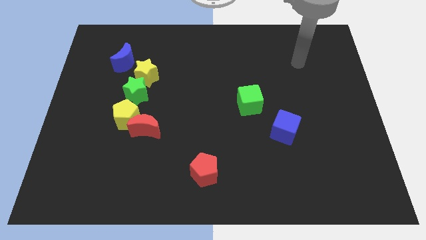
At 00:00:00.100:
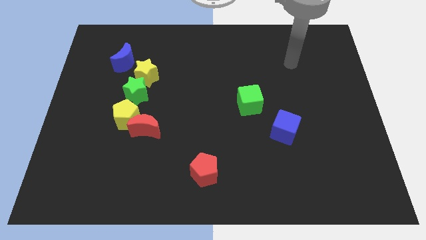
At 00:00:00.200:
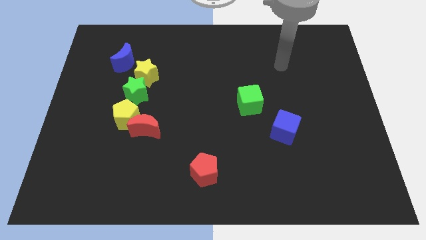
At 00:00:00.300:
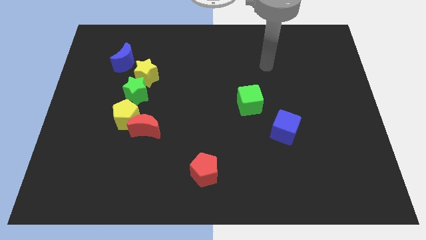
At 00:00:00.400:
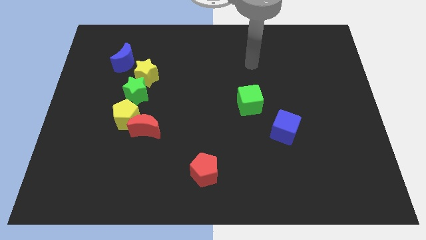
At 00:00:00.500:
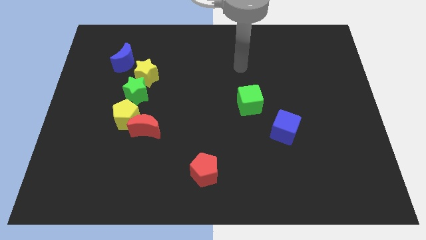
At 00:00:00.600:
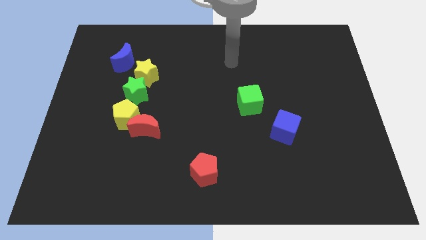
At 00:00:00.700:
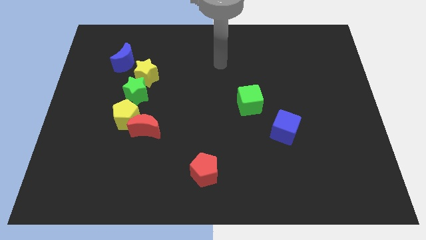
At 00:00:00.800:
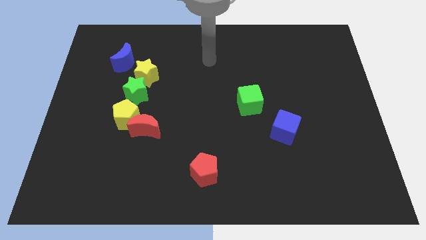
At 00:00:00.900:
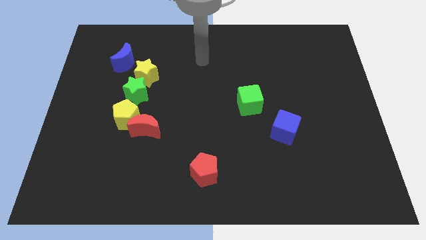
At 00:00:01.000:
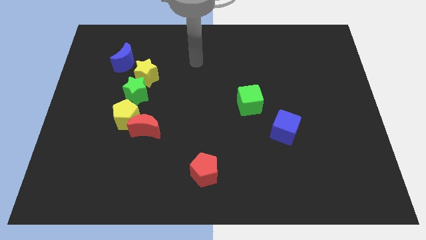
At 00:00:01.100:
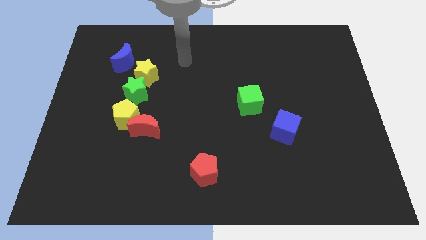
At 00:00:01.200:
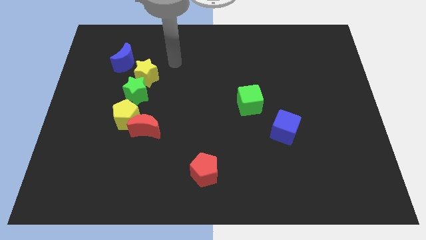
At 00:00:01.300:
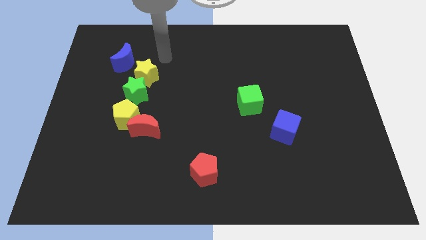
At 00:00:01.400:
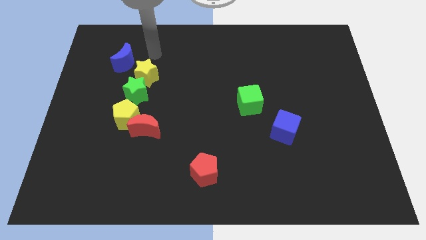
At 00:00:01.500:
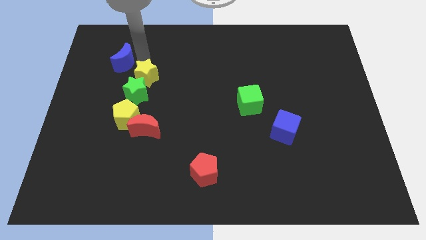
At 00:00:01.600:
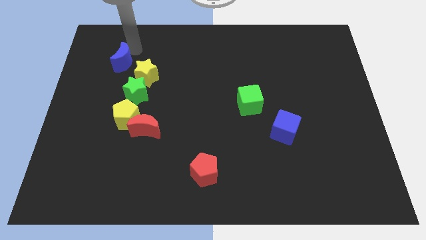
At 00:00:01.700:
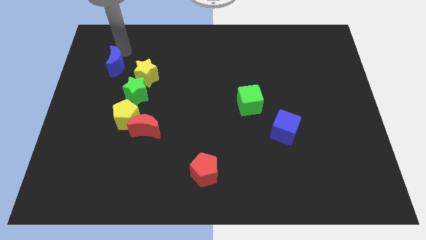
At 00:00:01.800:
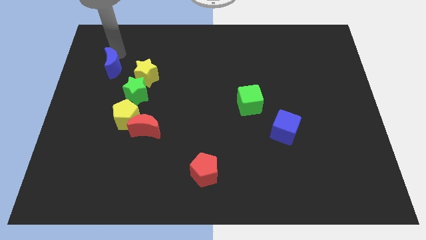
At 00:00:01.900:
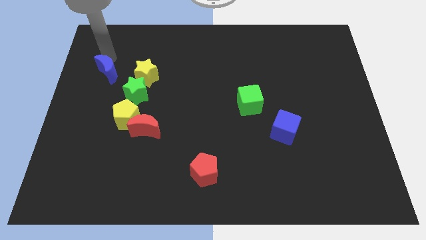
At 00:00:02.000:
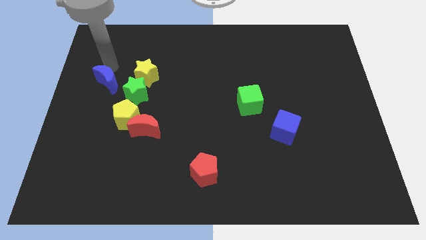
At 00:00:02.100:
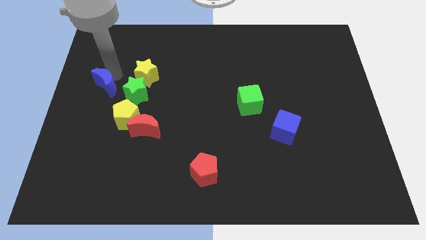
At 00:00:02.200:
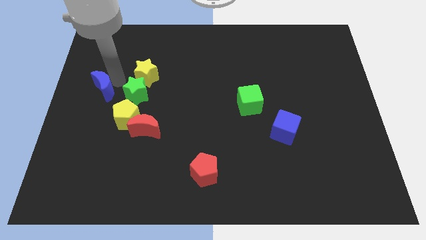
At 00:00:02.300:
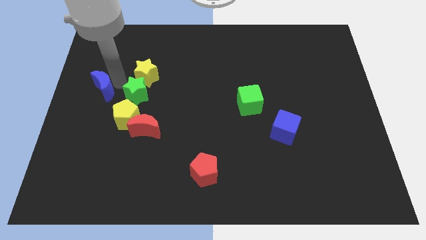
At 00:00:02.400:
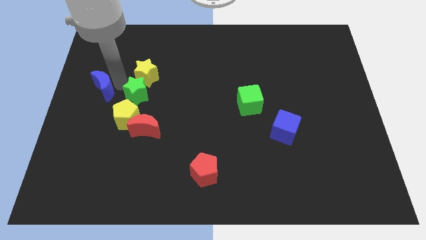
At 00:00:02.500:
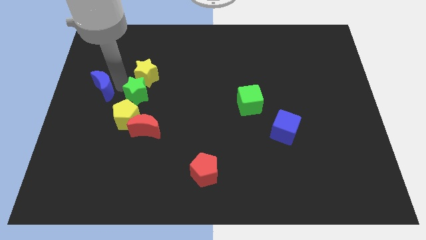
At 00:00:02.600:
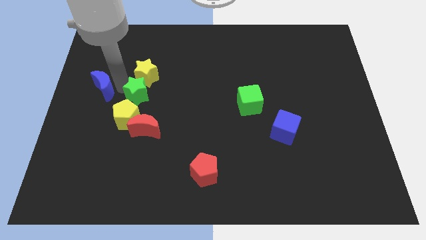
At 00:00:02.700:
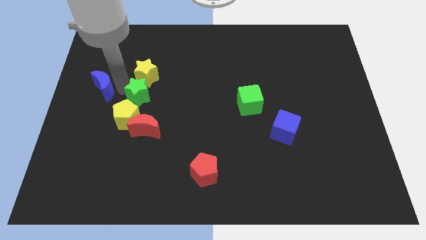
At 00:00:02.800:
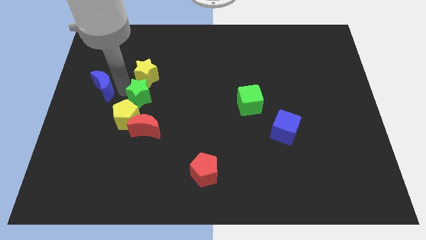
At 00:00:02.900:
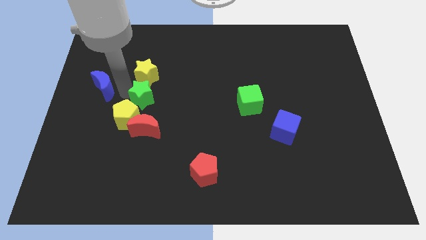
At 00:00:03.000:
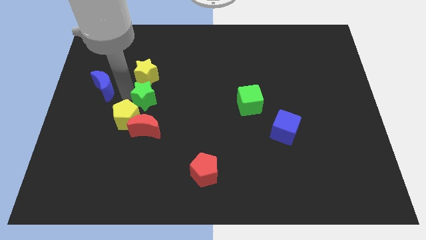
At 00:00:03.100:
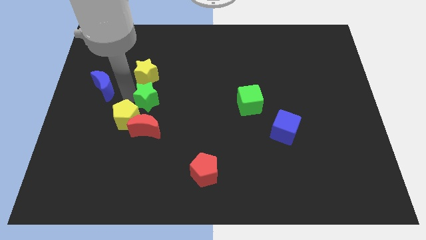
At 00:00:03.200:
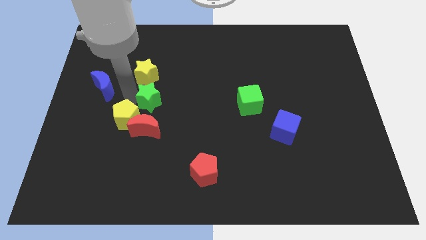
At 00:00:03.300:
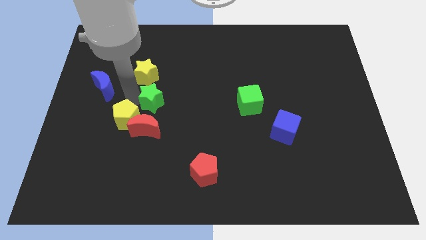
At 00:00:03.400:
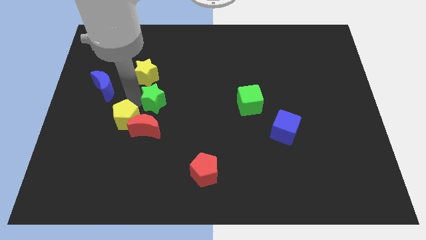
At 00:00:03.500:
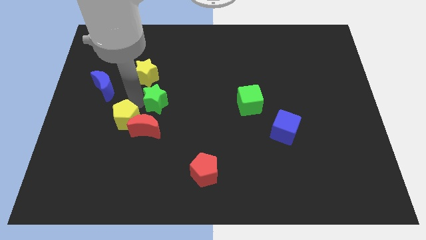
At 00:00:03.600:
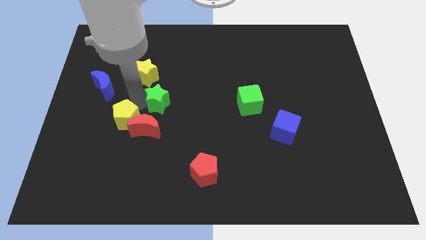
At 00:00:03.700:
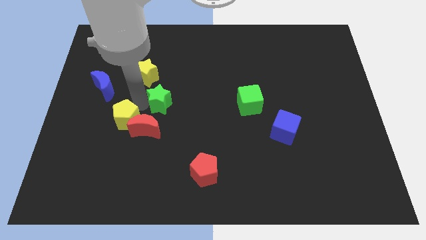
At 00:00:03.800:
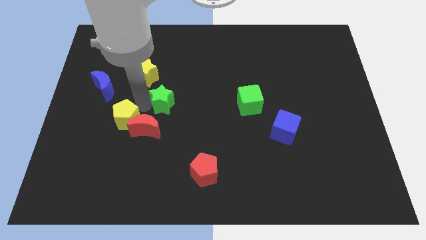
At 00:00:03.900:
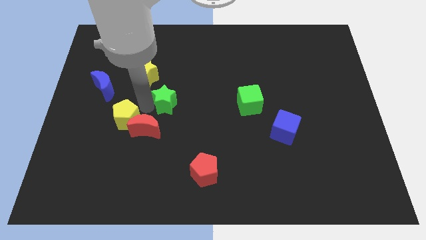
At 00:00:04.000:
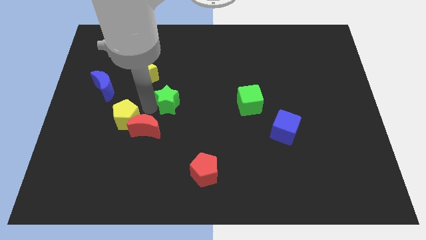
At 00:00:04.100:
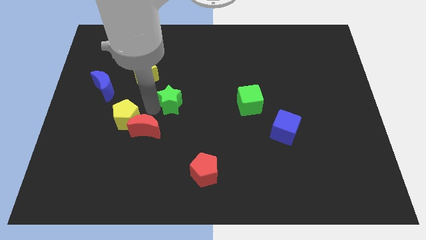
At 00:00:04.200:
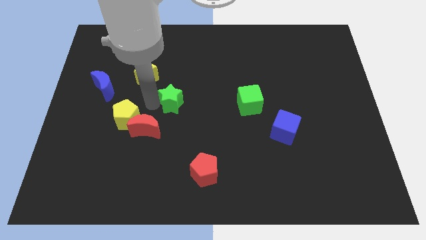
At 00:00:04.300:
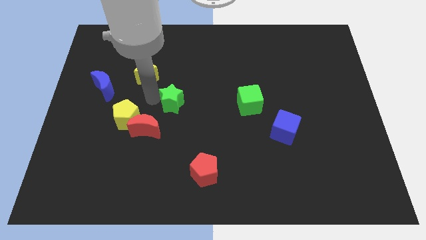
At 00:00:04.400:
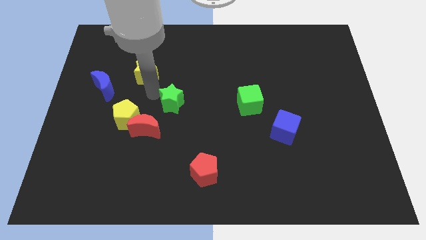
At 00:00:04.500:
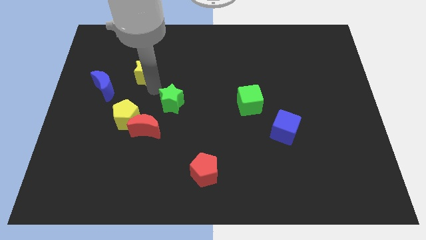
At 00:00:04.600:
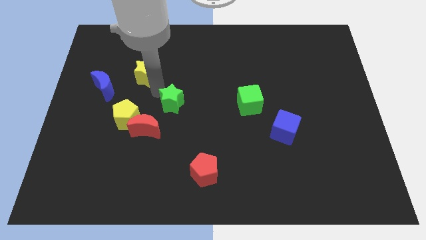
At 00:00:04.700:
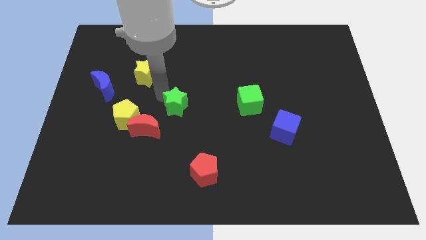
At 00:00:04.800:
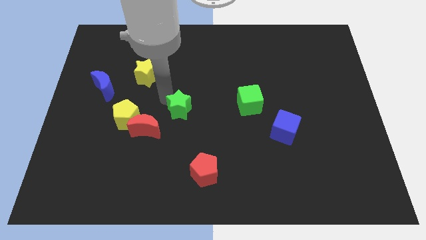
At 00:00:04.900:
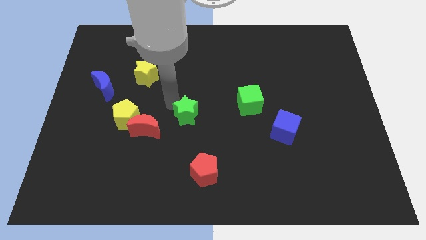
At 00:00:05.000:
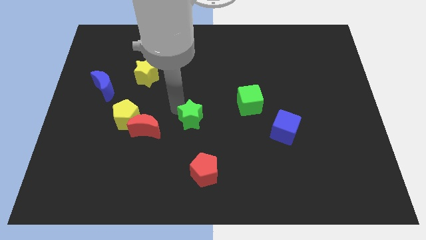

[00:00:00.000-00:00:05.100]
slide the green star above the red pentagon

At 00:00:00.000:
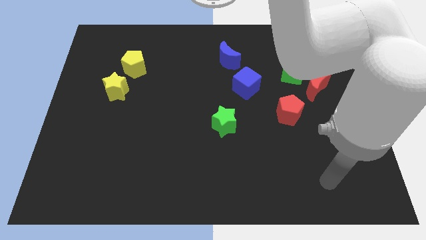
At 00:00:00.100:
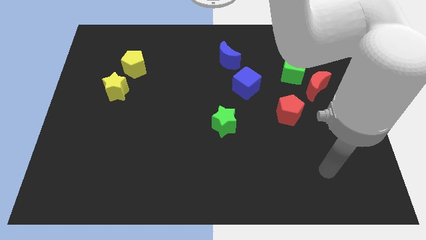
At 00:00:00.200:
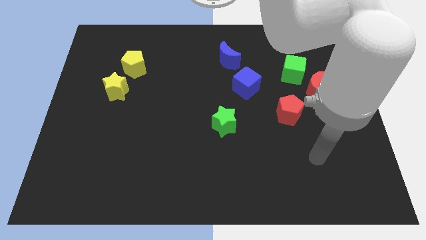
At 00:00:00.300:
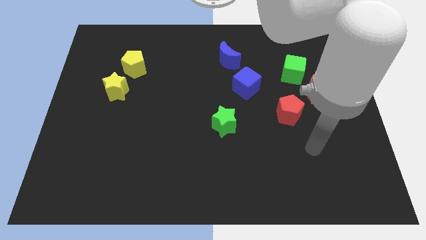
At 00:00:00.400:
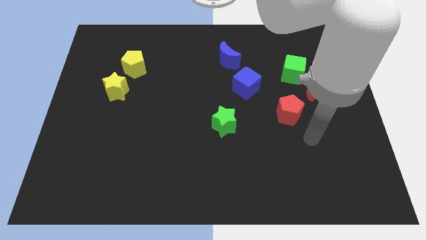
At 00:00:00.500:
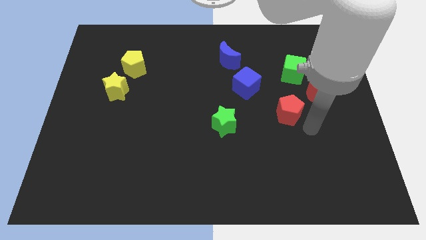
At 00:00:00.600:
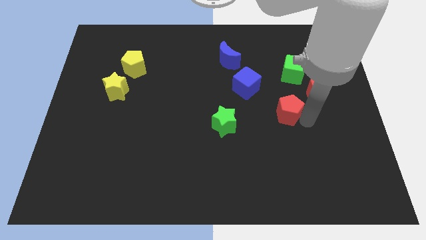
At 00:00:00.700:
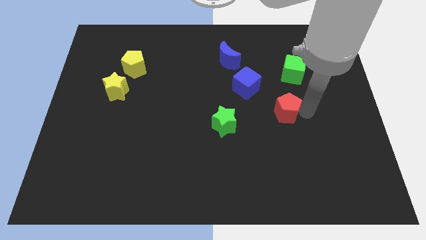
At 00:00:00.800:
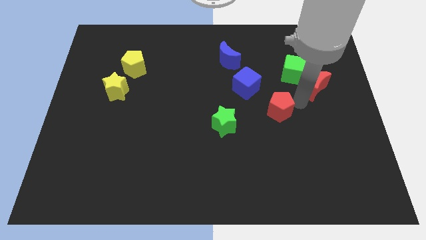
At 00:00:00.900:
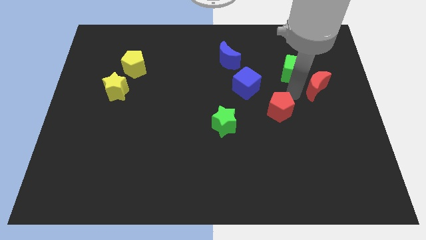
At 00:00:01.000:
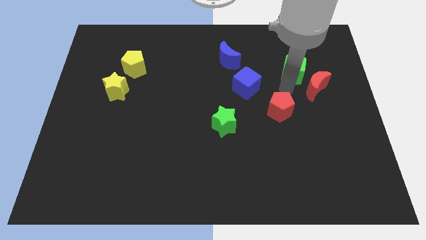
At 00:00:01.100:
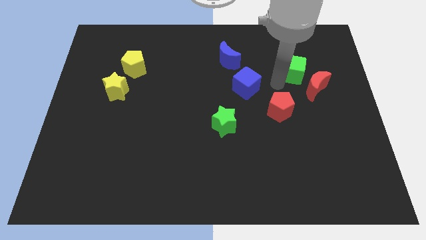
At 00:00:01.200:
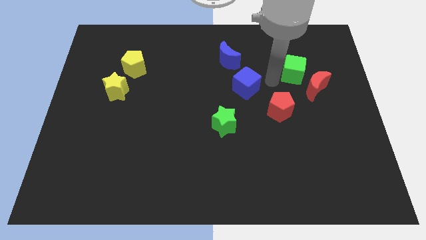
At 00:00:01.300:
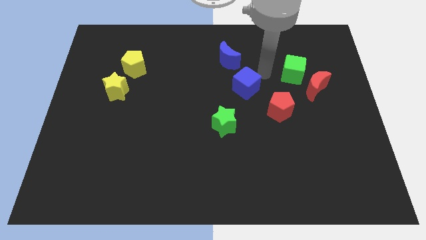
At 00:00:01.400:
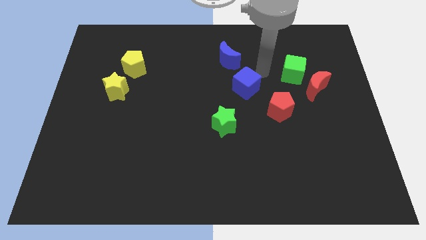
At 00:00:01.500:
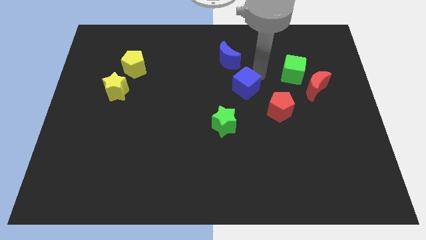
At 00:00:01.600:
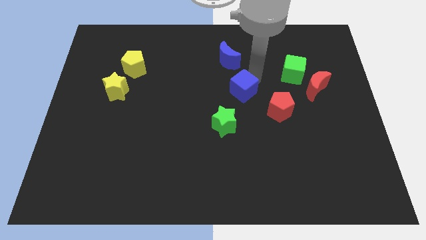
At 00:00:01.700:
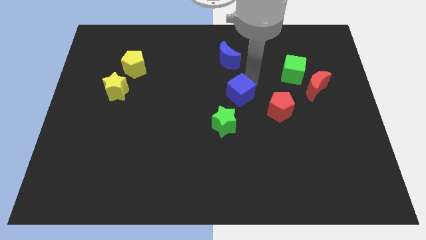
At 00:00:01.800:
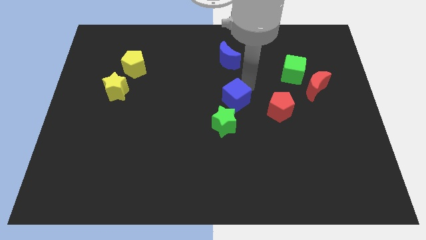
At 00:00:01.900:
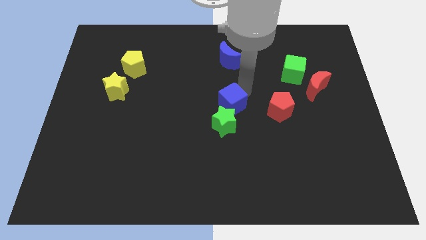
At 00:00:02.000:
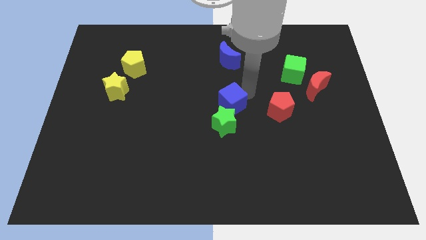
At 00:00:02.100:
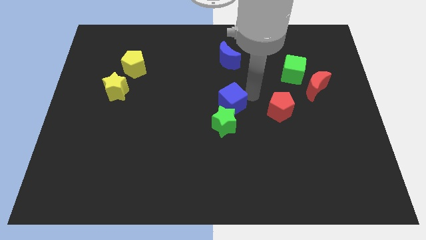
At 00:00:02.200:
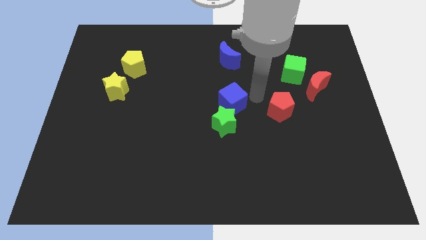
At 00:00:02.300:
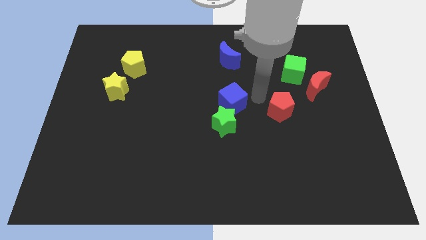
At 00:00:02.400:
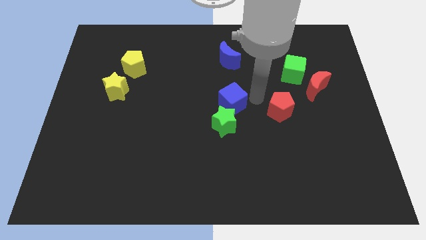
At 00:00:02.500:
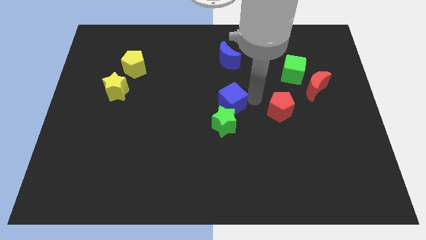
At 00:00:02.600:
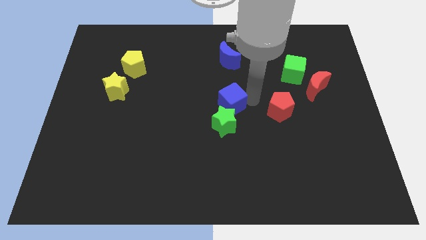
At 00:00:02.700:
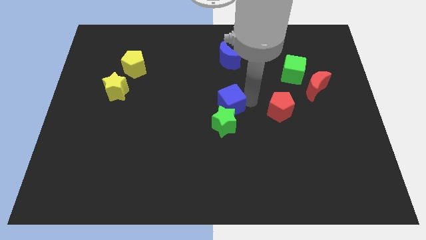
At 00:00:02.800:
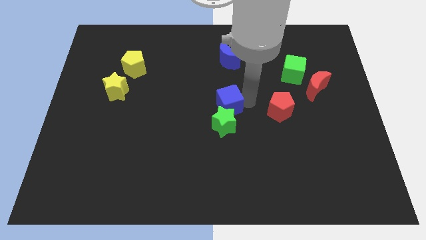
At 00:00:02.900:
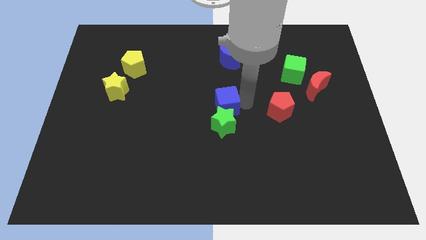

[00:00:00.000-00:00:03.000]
slide the blue cube to the top left side of the green star
